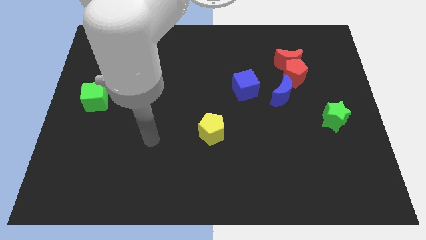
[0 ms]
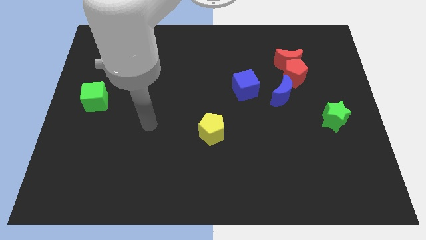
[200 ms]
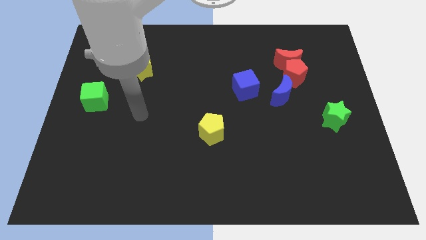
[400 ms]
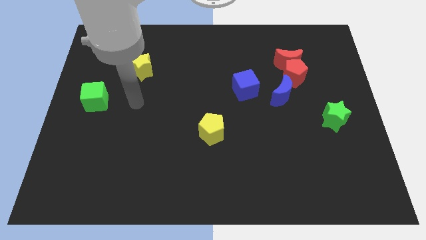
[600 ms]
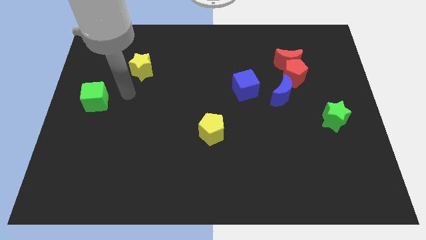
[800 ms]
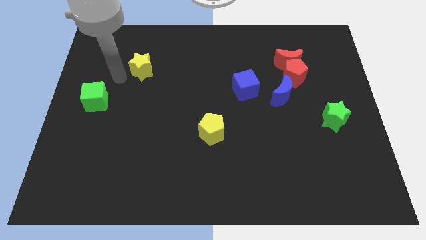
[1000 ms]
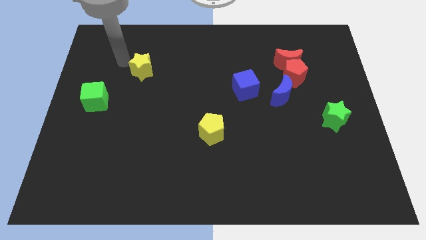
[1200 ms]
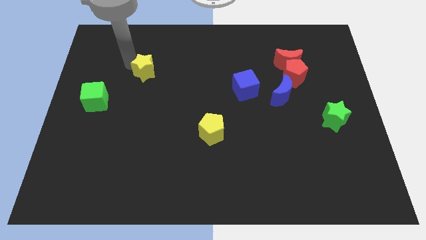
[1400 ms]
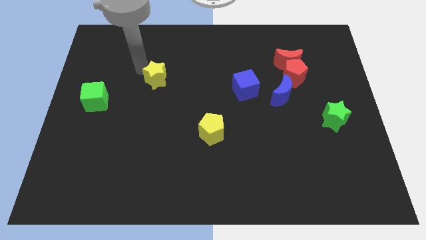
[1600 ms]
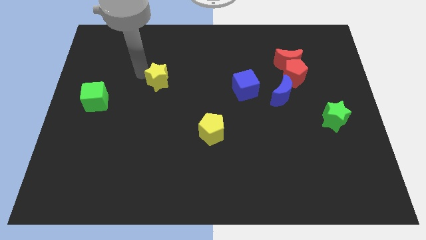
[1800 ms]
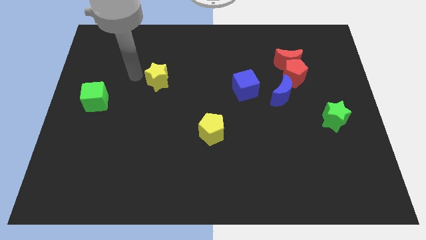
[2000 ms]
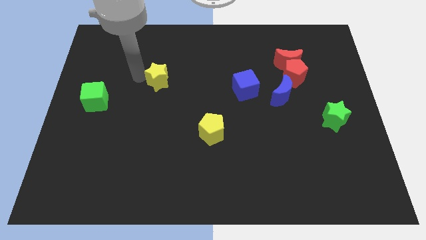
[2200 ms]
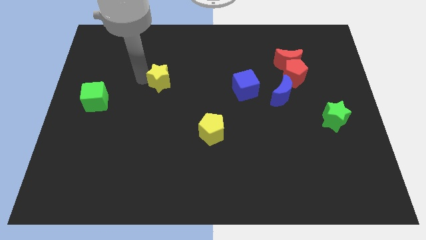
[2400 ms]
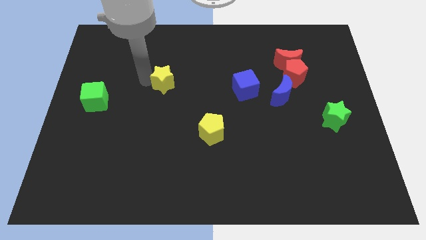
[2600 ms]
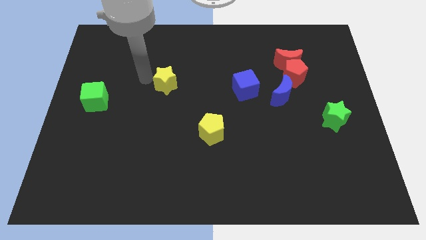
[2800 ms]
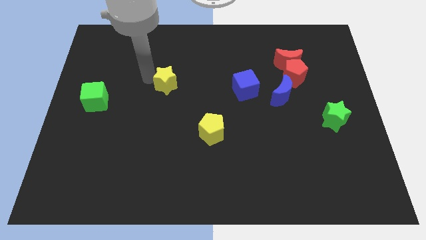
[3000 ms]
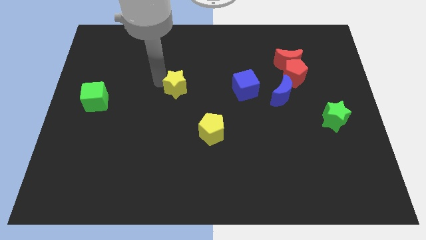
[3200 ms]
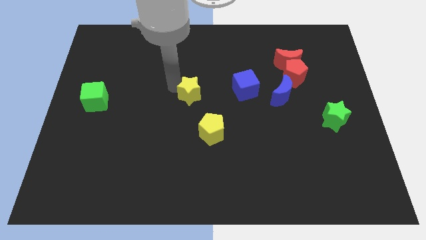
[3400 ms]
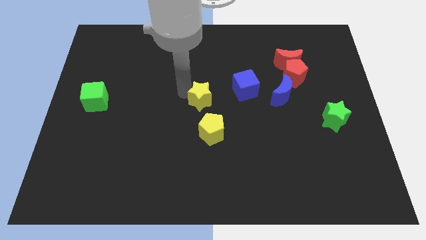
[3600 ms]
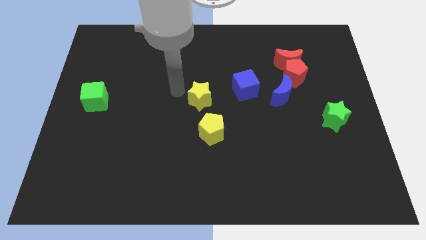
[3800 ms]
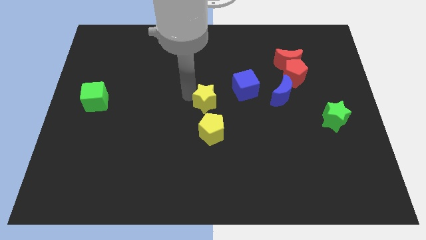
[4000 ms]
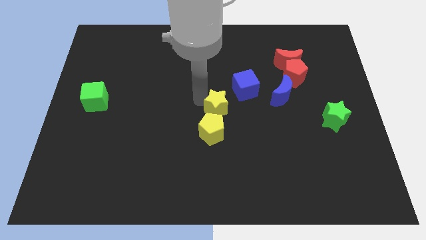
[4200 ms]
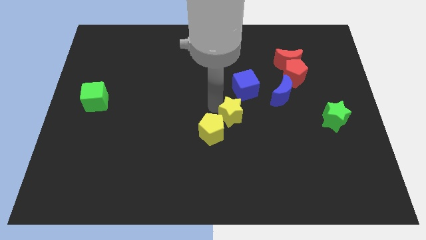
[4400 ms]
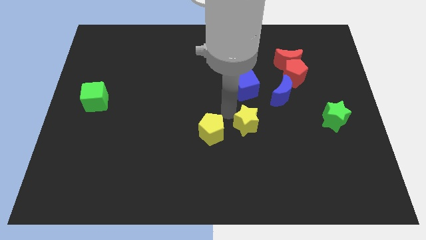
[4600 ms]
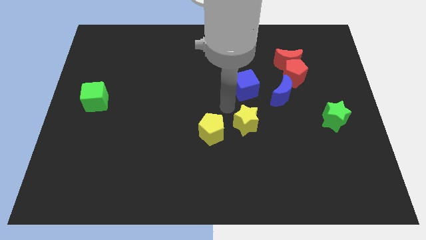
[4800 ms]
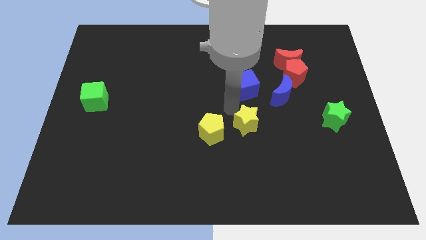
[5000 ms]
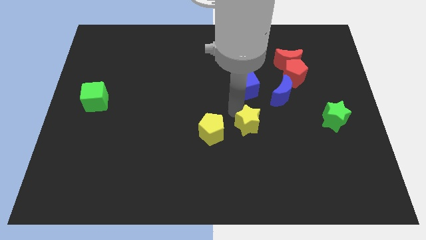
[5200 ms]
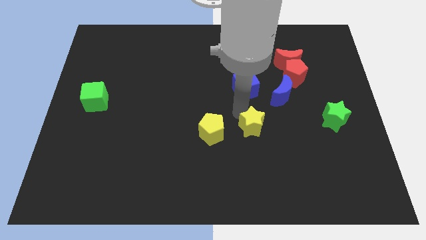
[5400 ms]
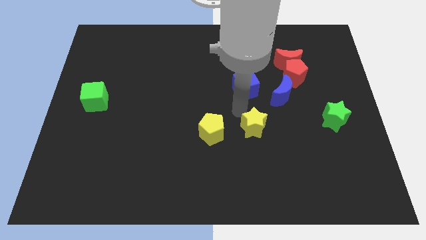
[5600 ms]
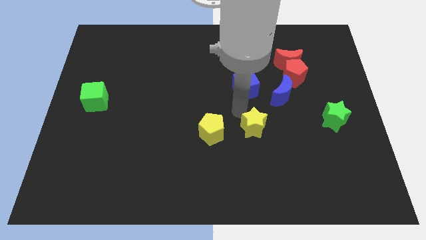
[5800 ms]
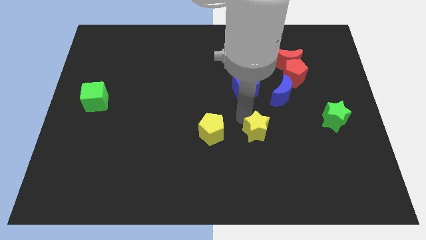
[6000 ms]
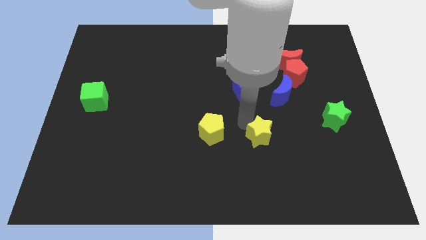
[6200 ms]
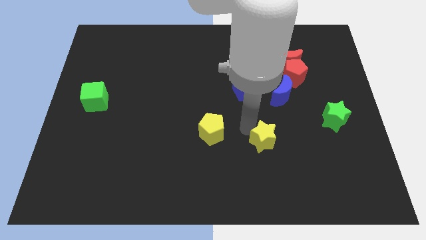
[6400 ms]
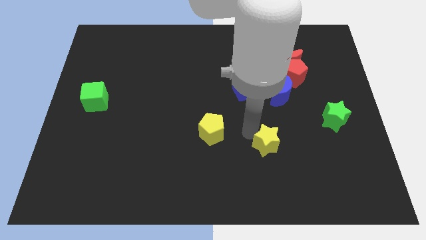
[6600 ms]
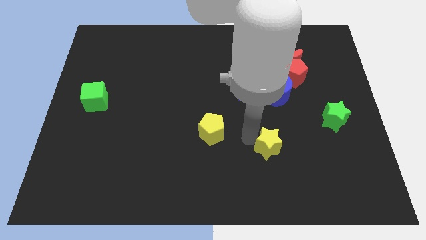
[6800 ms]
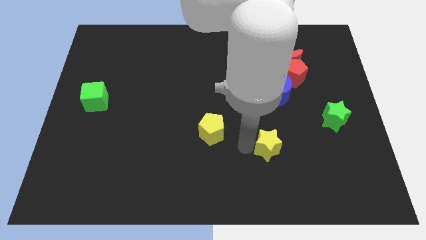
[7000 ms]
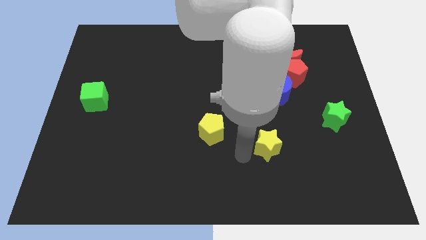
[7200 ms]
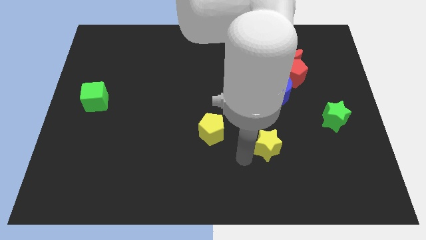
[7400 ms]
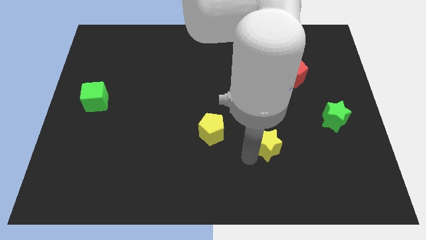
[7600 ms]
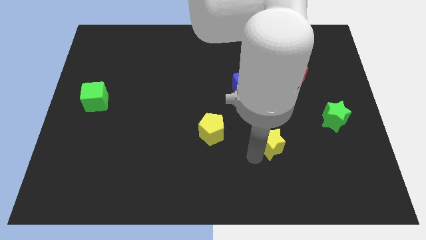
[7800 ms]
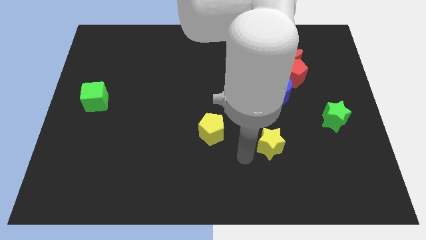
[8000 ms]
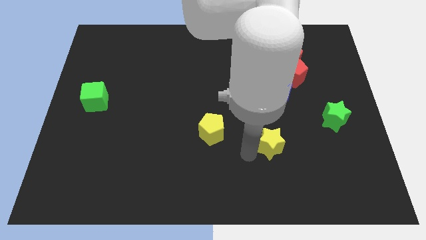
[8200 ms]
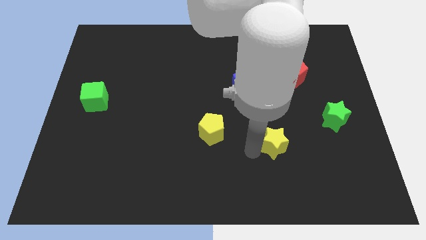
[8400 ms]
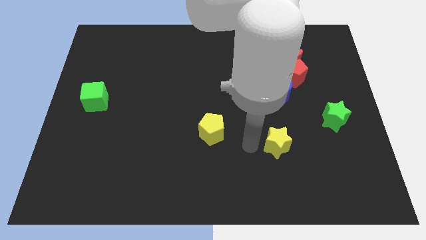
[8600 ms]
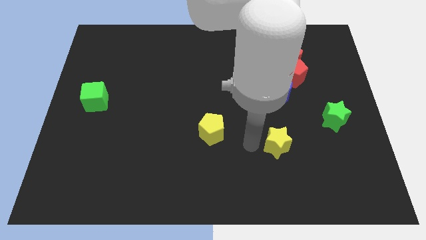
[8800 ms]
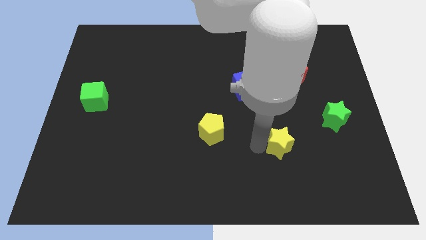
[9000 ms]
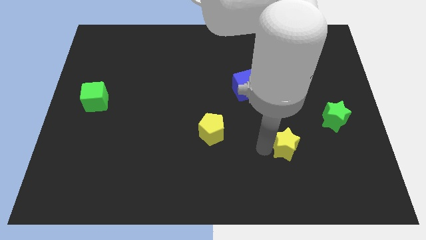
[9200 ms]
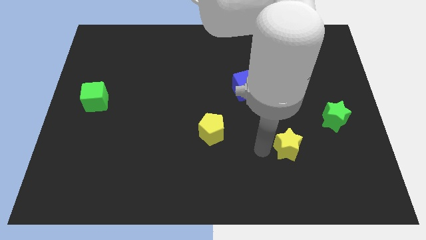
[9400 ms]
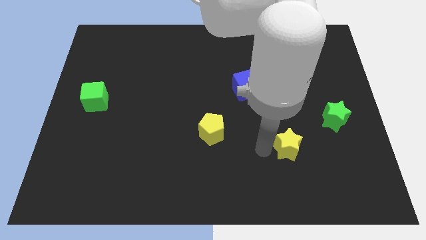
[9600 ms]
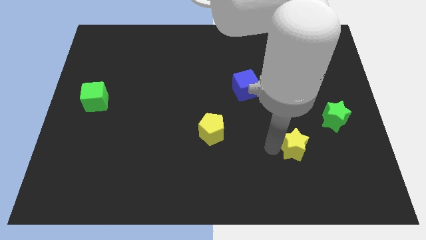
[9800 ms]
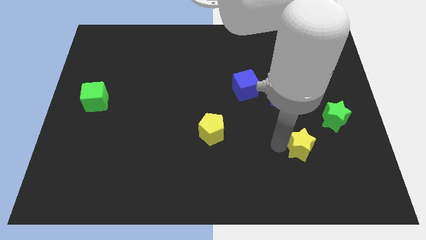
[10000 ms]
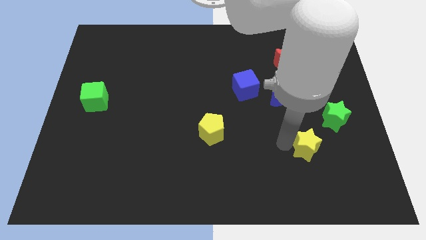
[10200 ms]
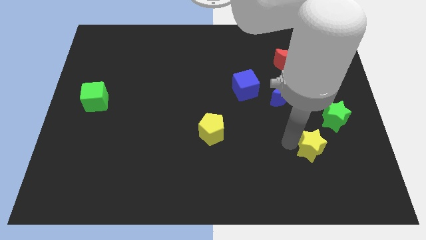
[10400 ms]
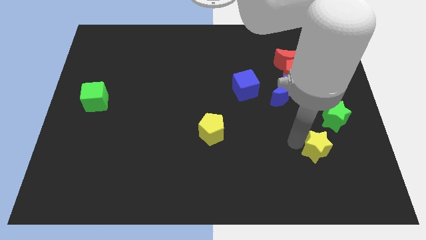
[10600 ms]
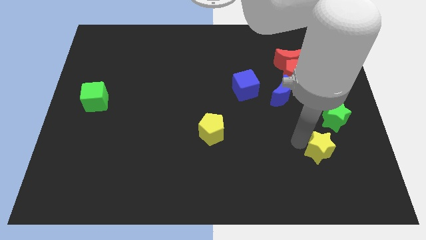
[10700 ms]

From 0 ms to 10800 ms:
slide the yellow star to the bottom of the green star
